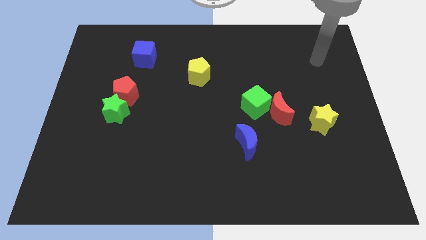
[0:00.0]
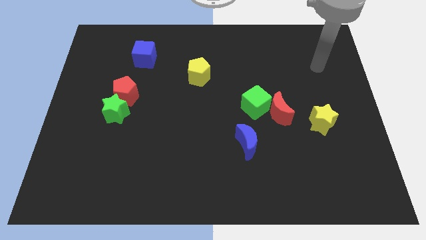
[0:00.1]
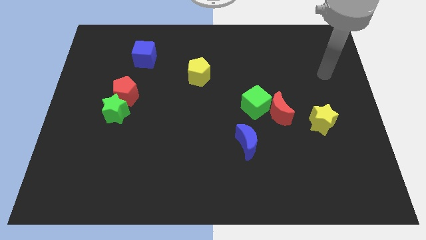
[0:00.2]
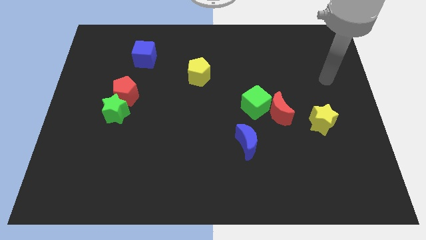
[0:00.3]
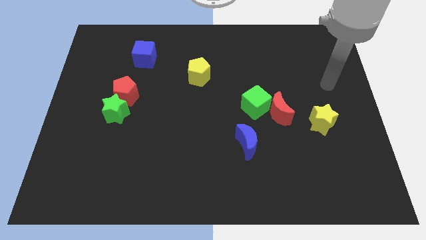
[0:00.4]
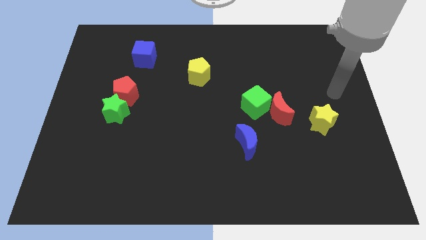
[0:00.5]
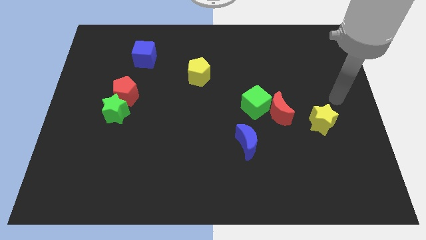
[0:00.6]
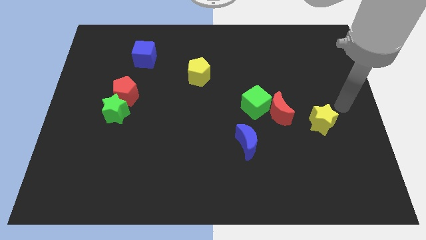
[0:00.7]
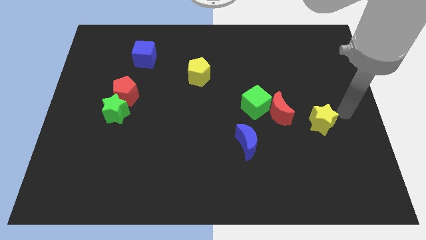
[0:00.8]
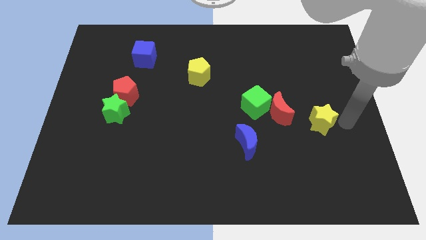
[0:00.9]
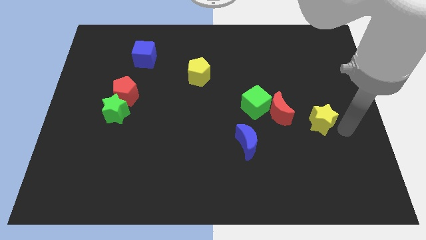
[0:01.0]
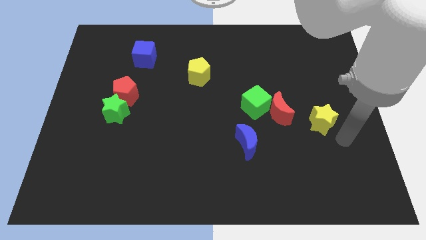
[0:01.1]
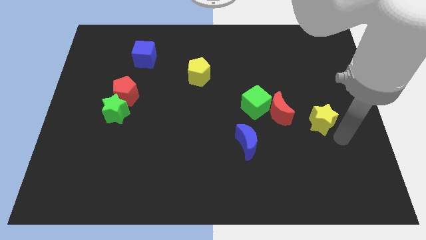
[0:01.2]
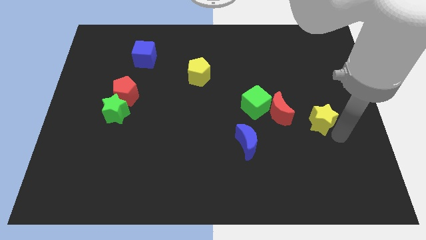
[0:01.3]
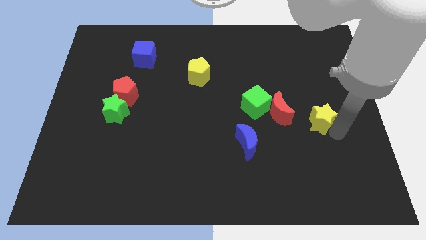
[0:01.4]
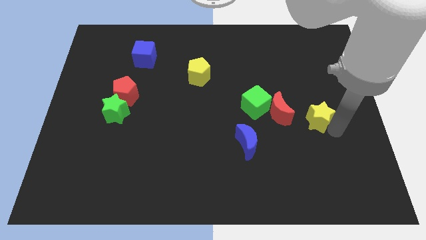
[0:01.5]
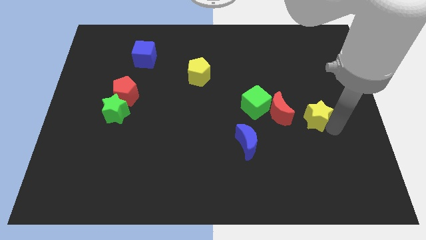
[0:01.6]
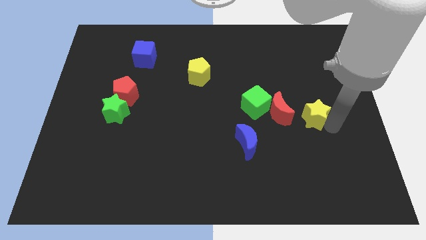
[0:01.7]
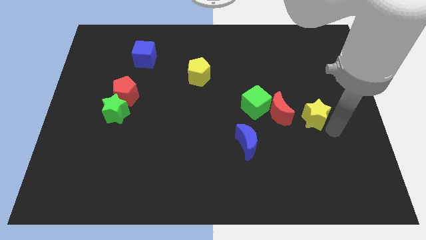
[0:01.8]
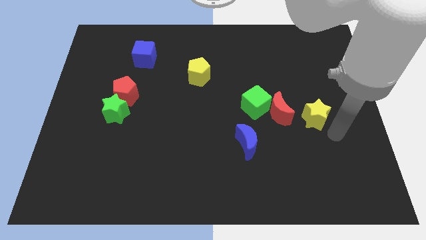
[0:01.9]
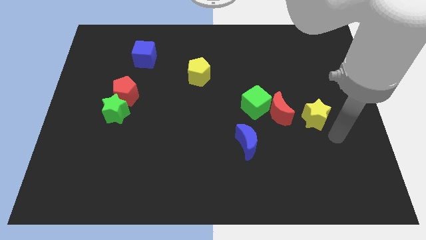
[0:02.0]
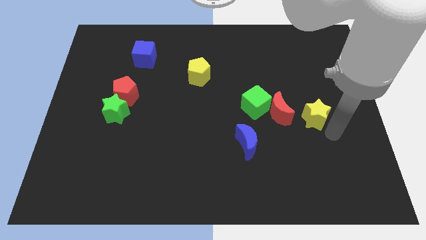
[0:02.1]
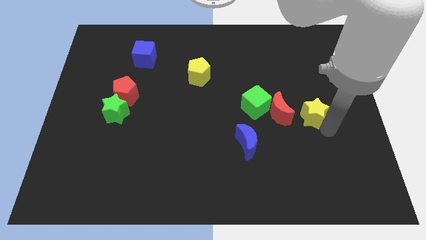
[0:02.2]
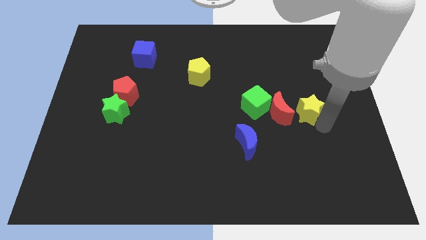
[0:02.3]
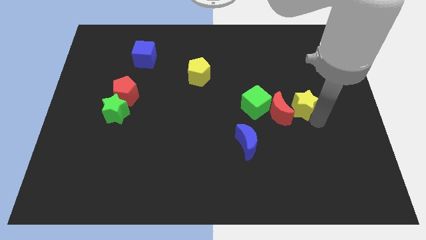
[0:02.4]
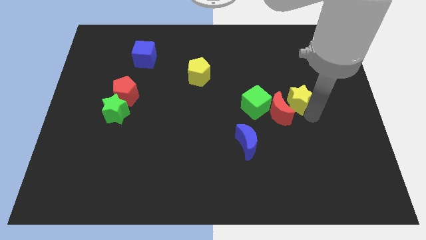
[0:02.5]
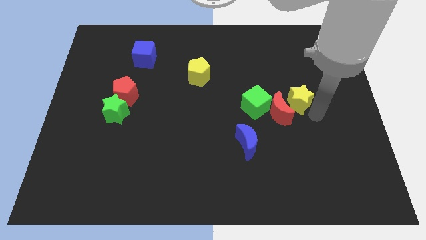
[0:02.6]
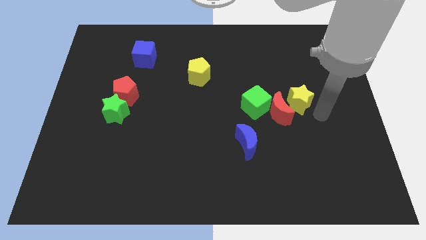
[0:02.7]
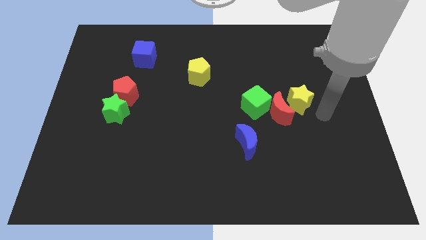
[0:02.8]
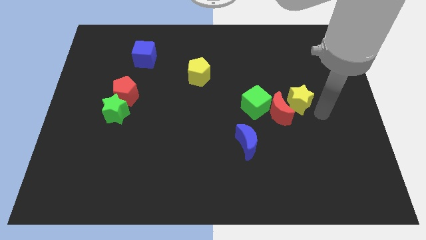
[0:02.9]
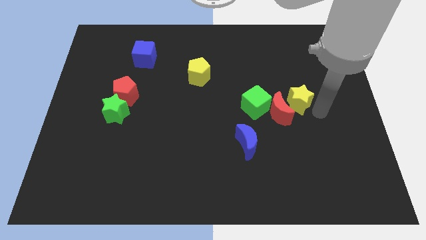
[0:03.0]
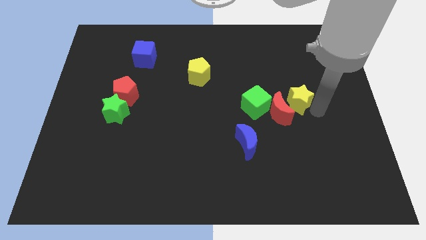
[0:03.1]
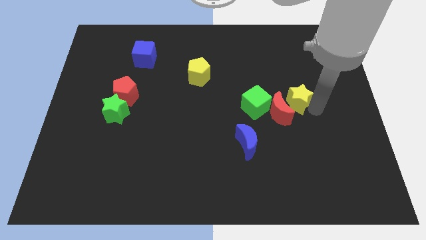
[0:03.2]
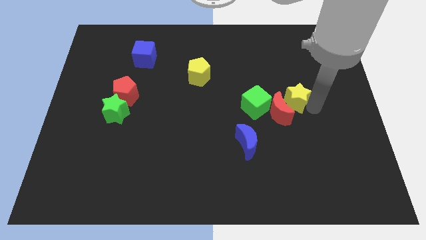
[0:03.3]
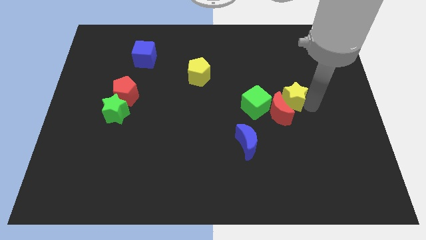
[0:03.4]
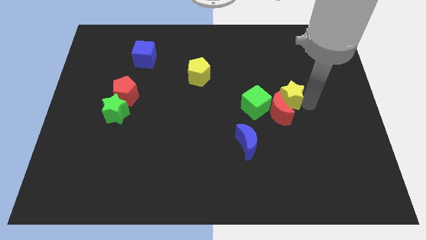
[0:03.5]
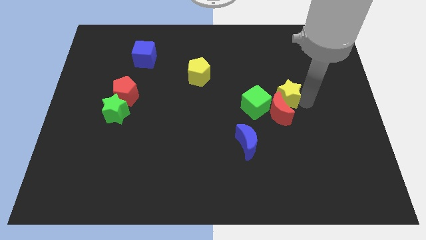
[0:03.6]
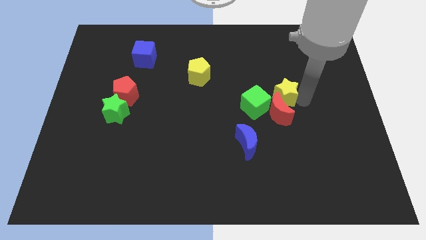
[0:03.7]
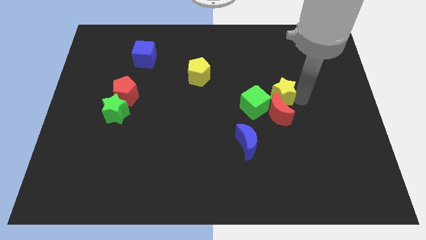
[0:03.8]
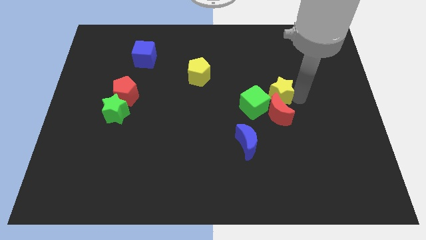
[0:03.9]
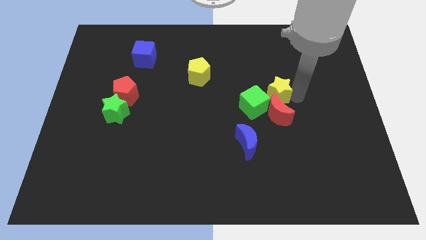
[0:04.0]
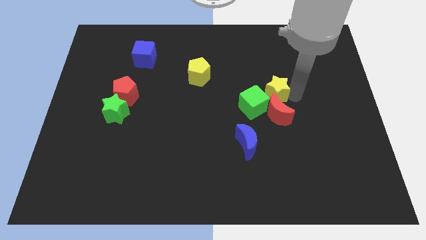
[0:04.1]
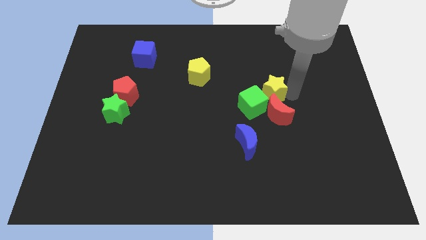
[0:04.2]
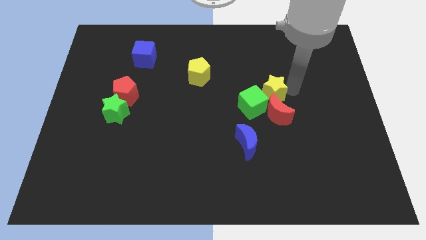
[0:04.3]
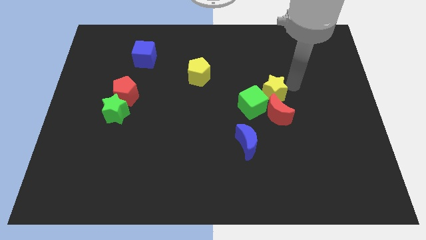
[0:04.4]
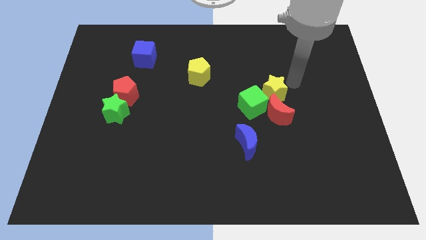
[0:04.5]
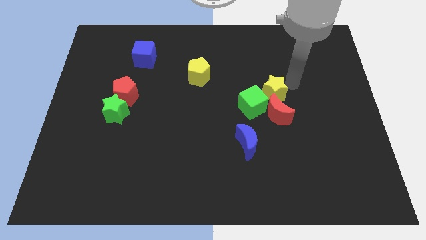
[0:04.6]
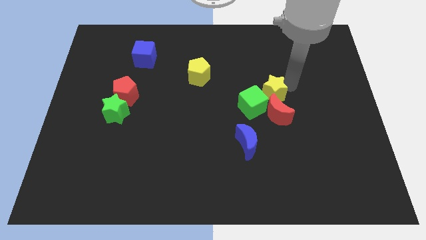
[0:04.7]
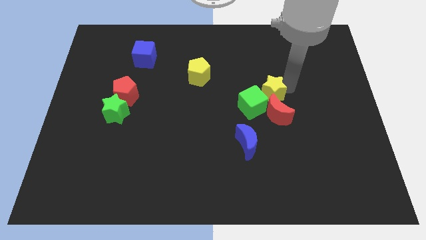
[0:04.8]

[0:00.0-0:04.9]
move the yellow star close to the green cube

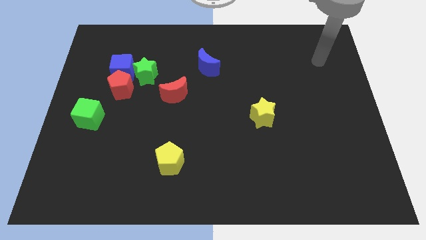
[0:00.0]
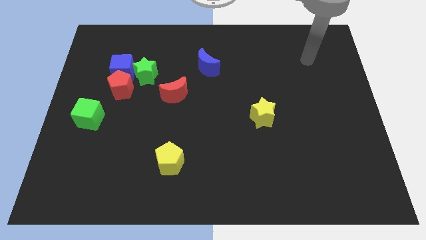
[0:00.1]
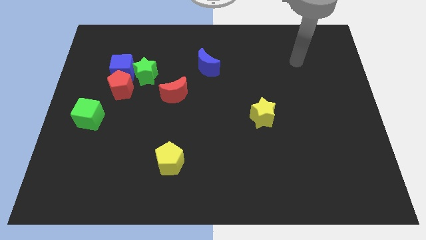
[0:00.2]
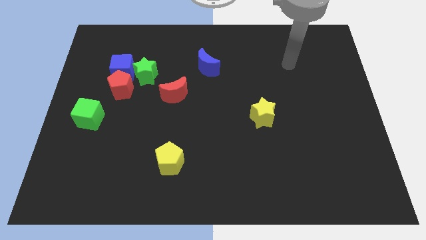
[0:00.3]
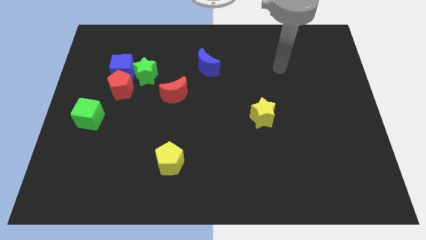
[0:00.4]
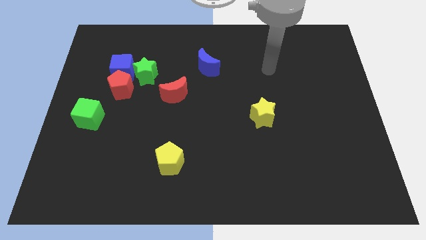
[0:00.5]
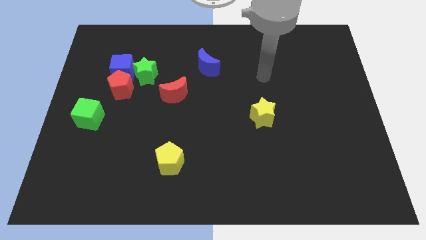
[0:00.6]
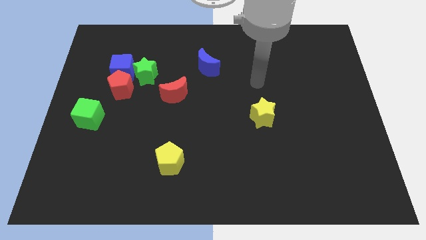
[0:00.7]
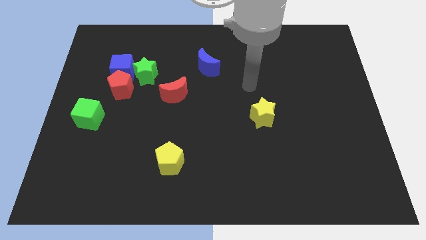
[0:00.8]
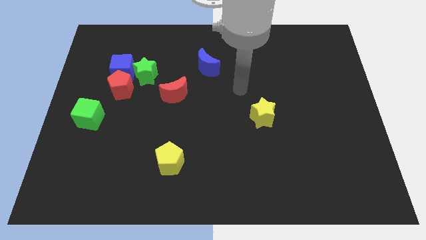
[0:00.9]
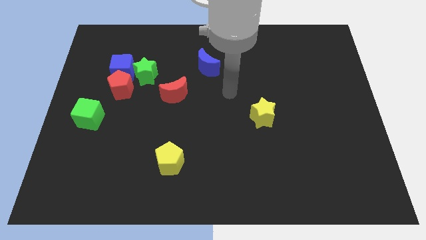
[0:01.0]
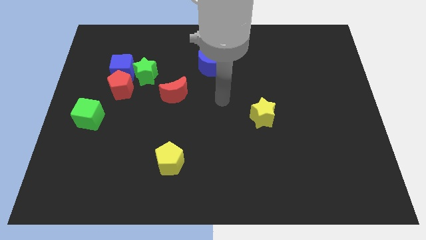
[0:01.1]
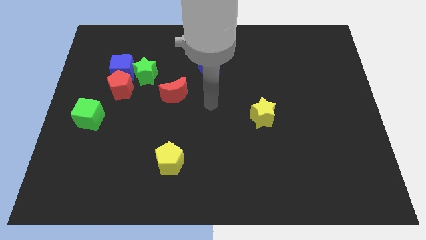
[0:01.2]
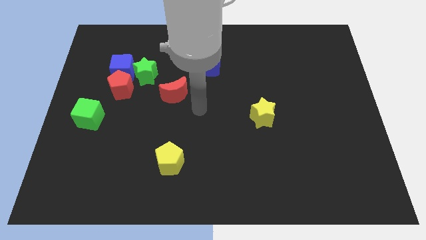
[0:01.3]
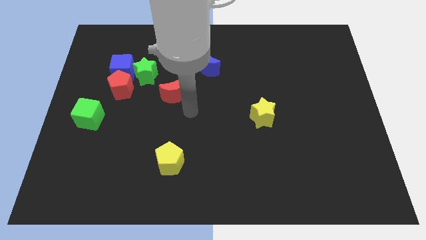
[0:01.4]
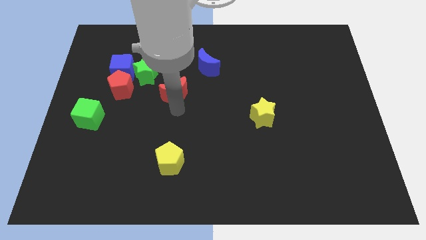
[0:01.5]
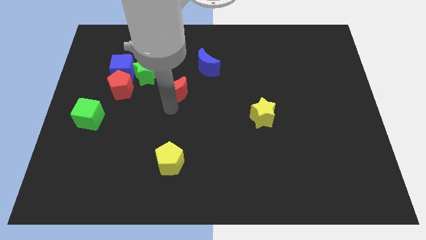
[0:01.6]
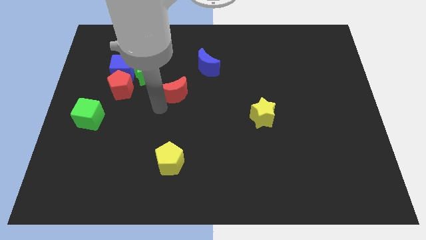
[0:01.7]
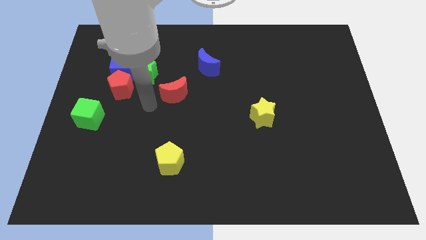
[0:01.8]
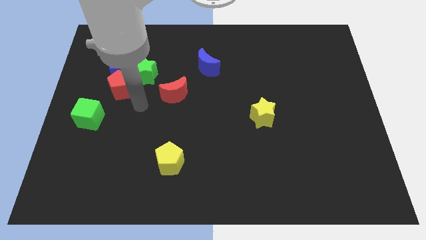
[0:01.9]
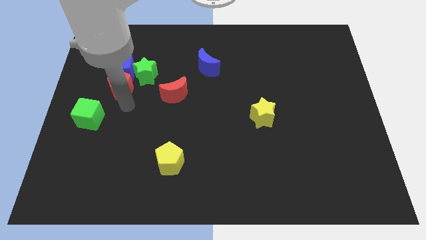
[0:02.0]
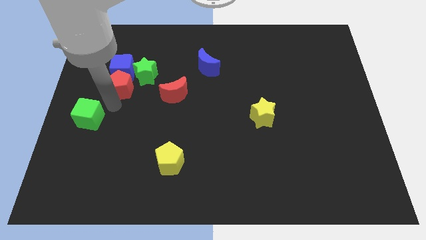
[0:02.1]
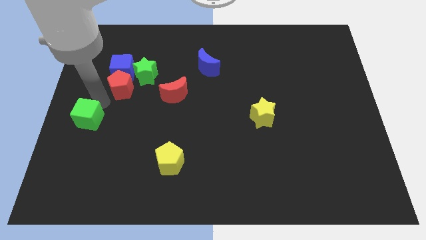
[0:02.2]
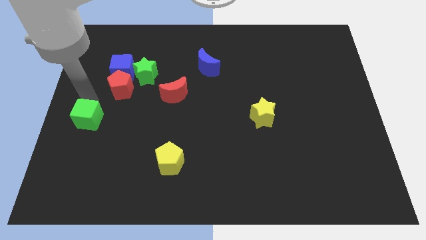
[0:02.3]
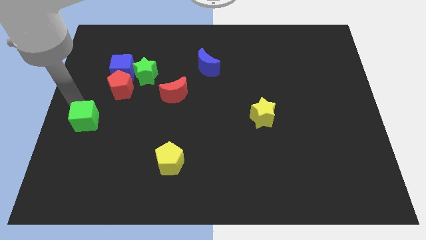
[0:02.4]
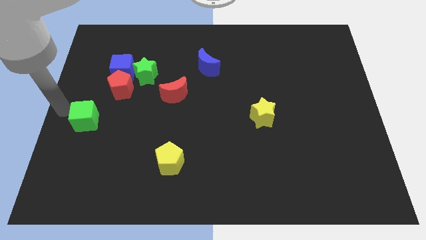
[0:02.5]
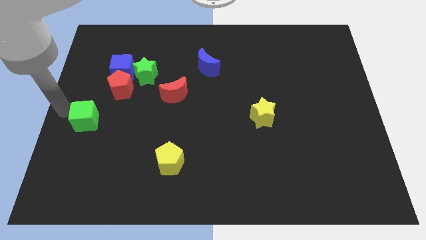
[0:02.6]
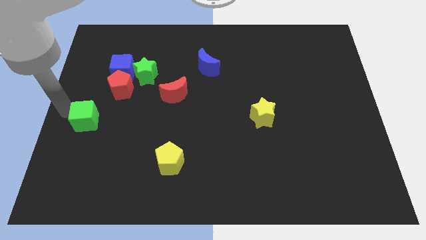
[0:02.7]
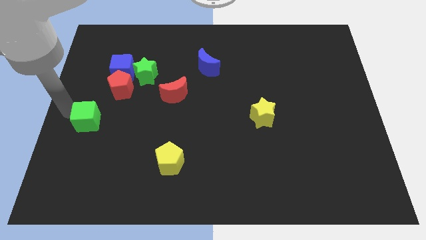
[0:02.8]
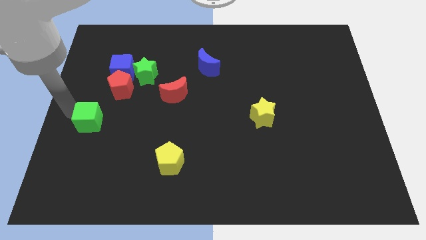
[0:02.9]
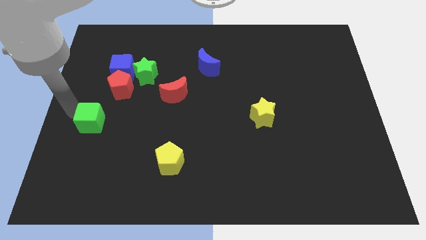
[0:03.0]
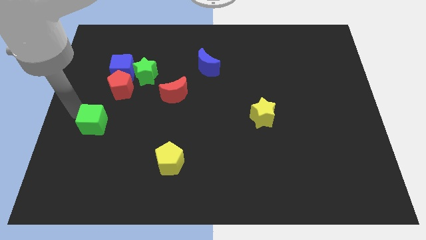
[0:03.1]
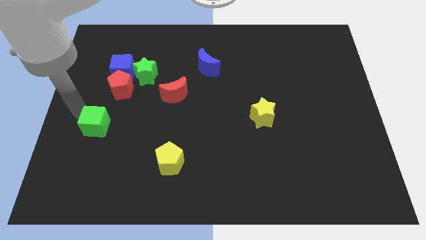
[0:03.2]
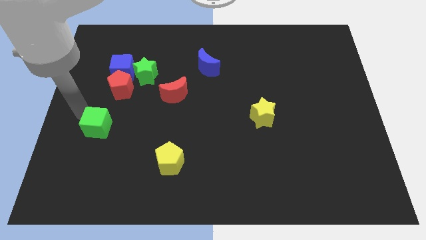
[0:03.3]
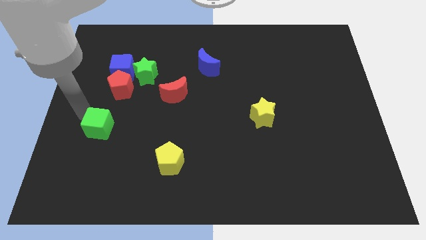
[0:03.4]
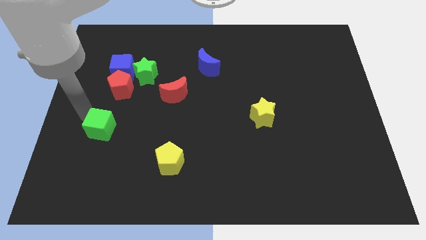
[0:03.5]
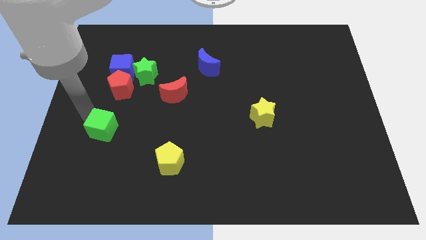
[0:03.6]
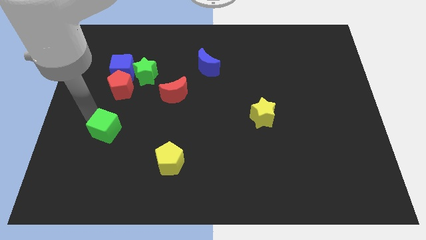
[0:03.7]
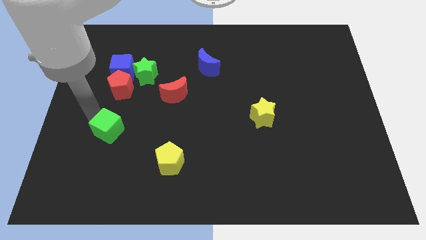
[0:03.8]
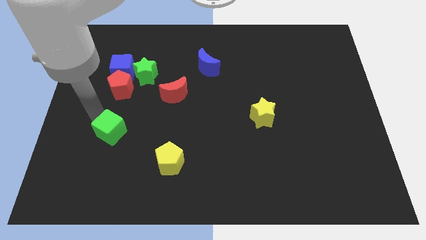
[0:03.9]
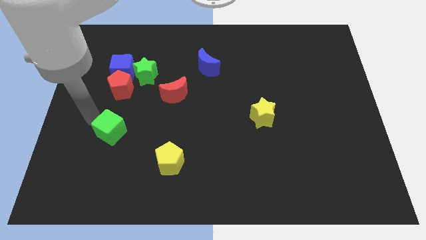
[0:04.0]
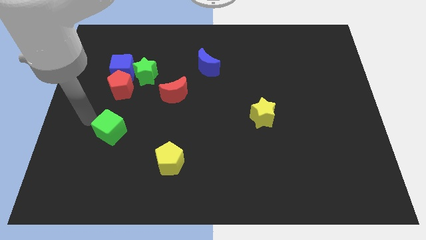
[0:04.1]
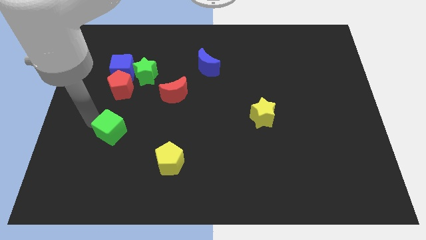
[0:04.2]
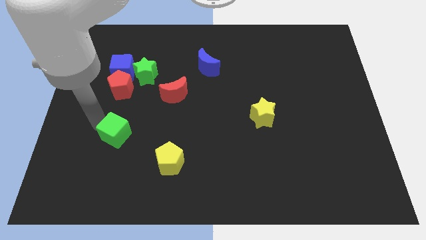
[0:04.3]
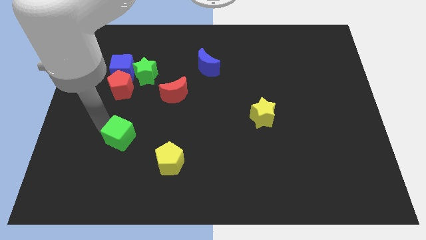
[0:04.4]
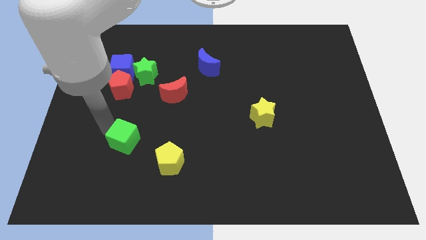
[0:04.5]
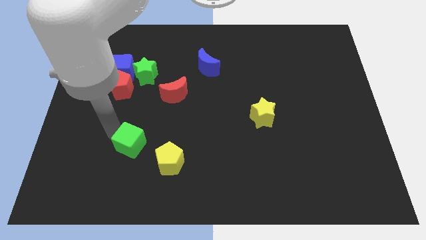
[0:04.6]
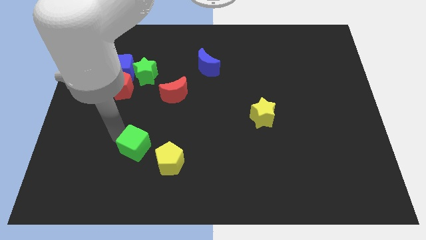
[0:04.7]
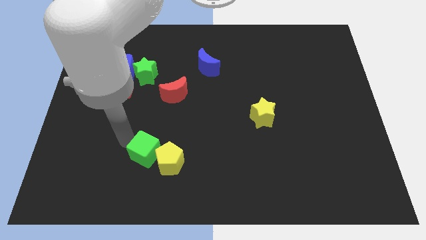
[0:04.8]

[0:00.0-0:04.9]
push the green cube next to the yellow pentagon
